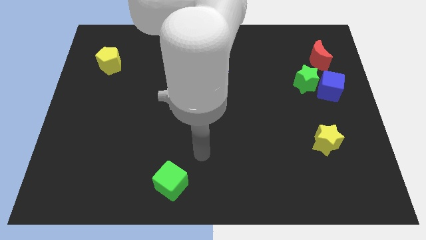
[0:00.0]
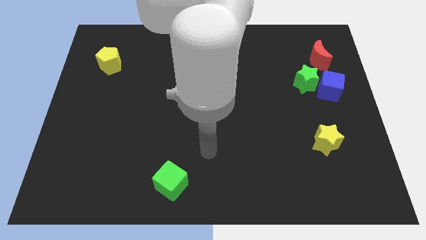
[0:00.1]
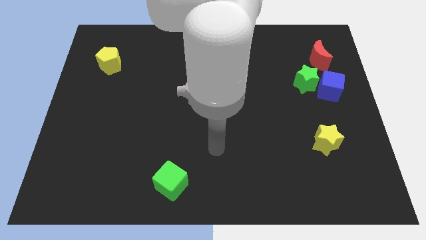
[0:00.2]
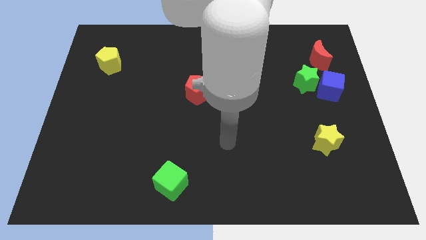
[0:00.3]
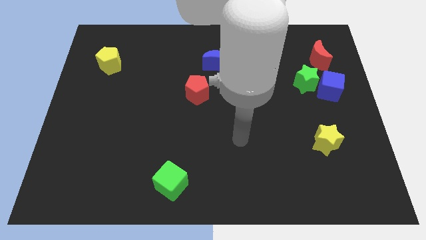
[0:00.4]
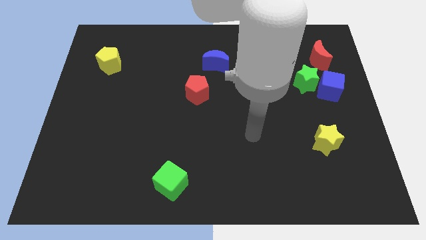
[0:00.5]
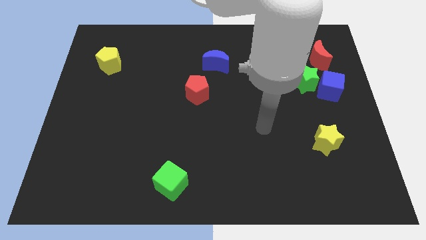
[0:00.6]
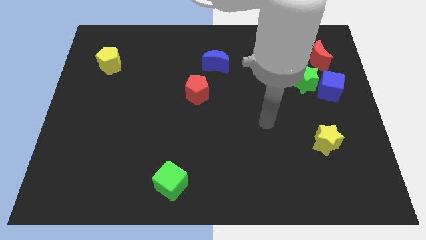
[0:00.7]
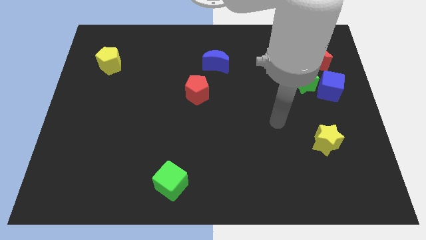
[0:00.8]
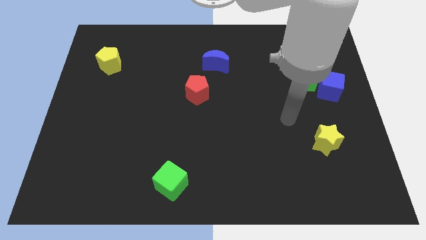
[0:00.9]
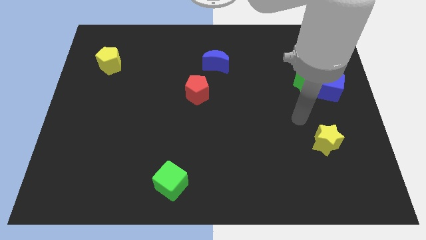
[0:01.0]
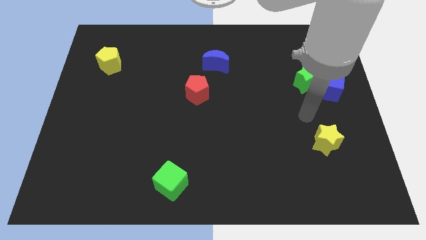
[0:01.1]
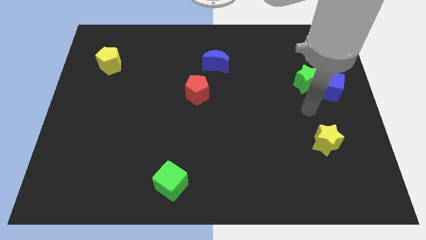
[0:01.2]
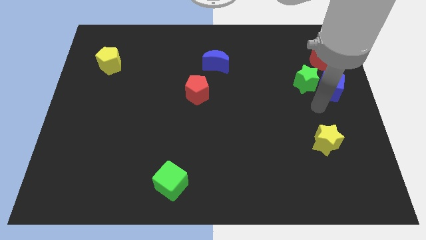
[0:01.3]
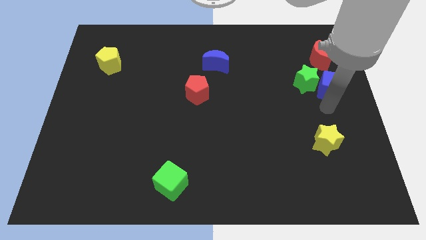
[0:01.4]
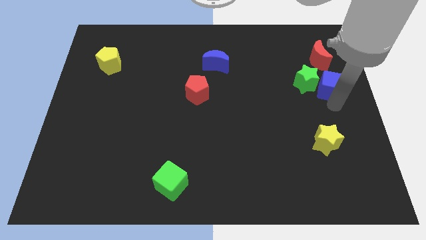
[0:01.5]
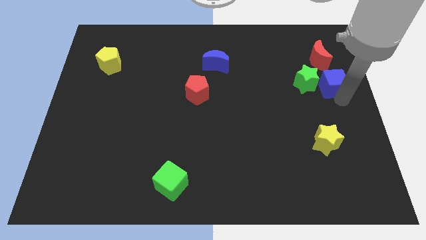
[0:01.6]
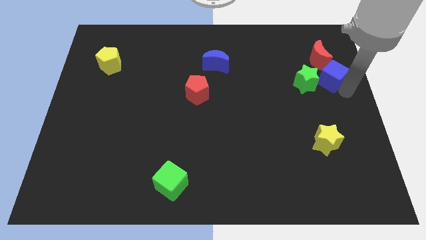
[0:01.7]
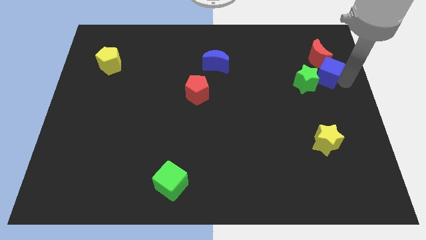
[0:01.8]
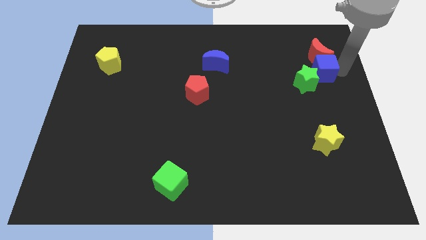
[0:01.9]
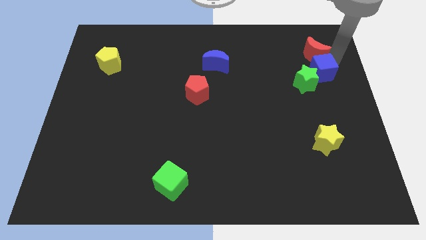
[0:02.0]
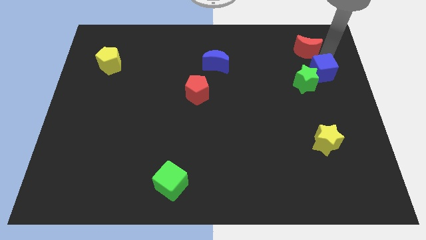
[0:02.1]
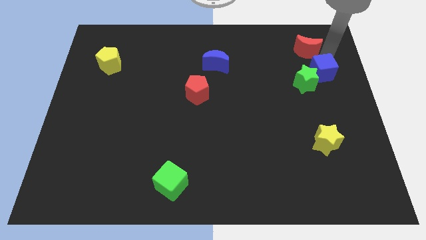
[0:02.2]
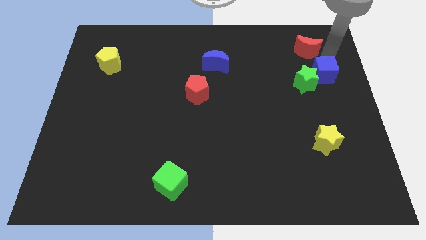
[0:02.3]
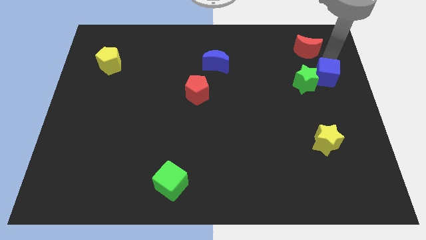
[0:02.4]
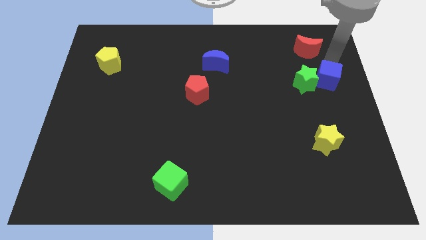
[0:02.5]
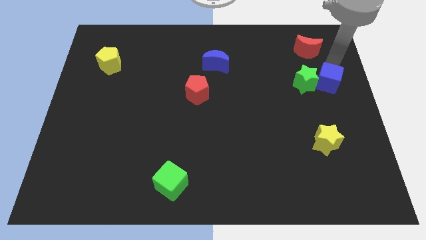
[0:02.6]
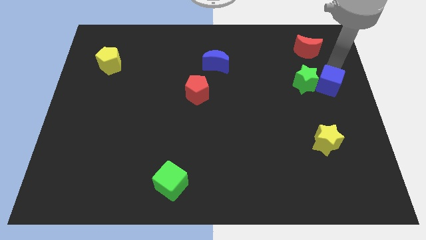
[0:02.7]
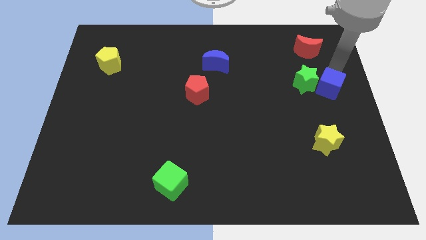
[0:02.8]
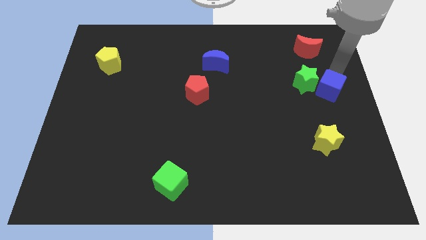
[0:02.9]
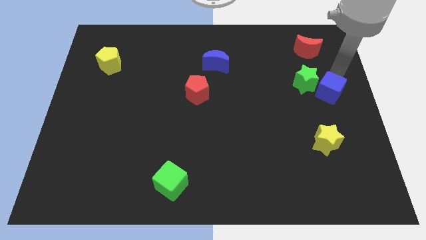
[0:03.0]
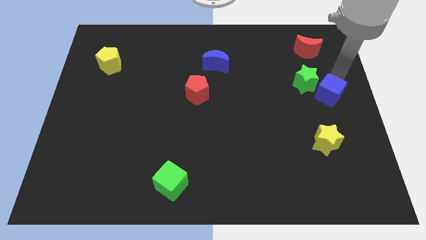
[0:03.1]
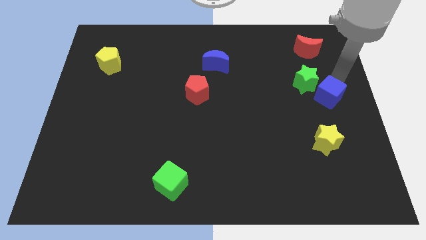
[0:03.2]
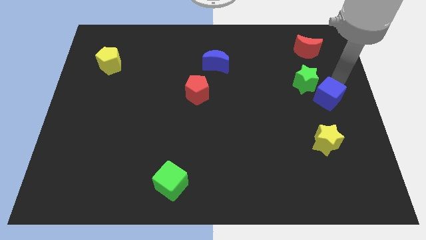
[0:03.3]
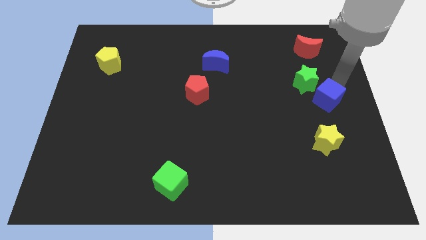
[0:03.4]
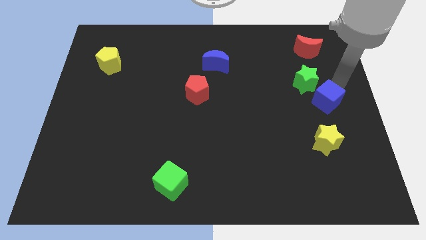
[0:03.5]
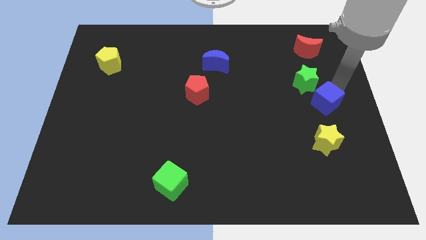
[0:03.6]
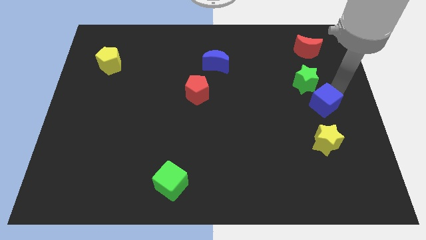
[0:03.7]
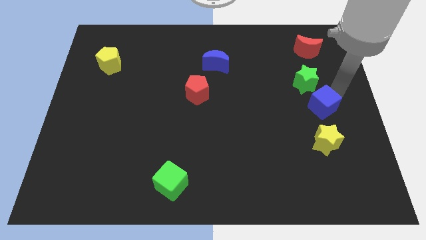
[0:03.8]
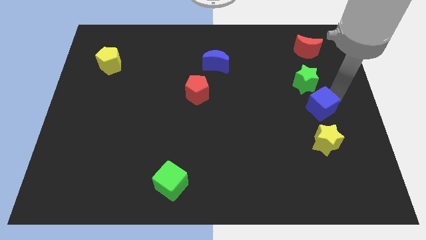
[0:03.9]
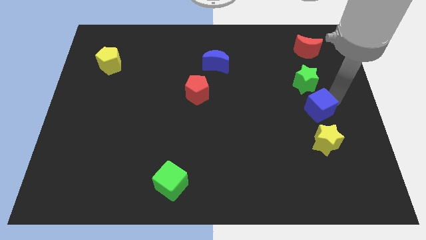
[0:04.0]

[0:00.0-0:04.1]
push the blue cube down and then to the left slightly

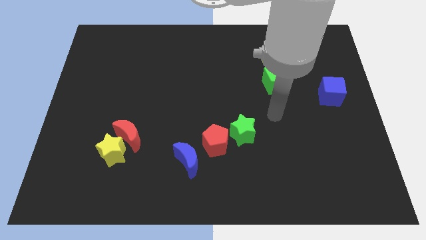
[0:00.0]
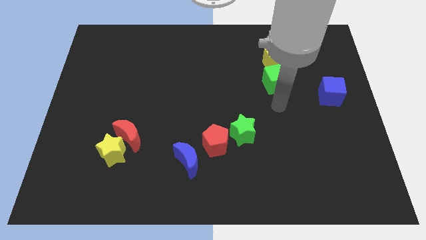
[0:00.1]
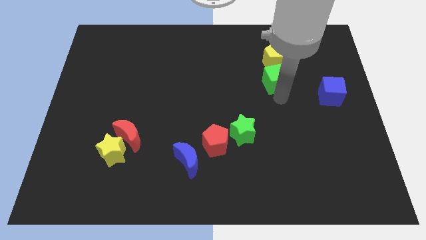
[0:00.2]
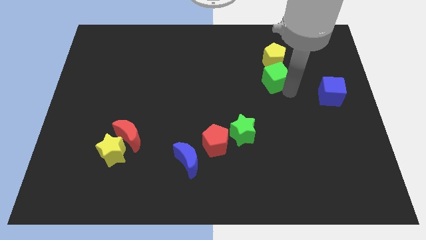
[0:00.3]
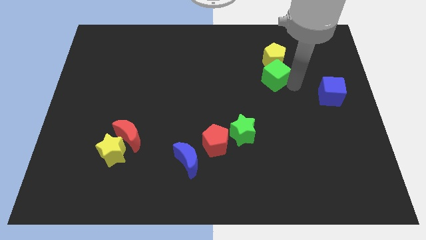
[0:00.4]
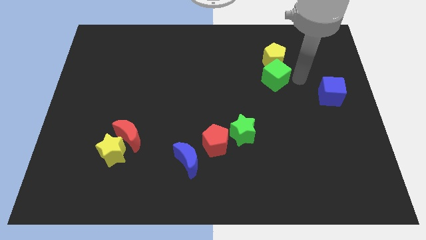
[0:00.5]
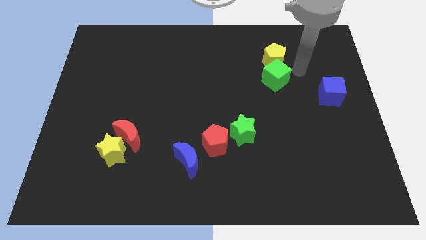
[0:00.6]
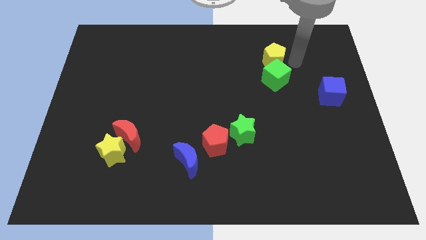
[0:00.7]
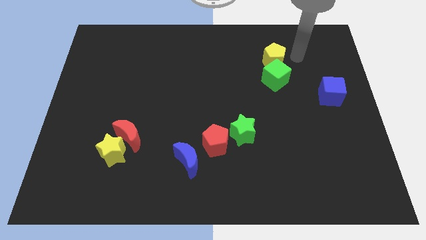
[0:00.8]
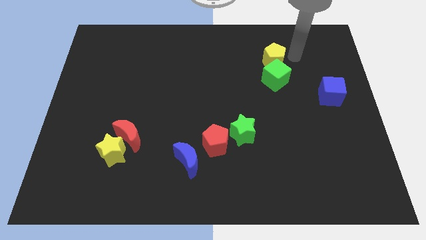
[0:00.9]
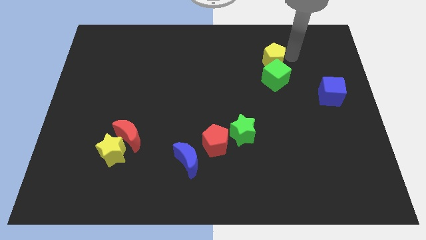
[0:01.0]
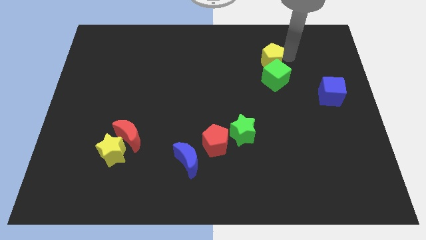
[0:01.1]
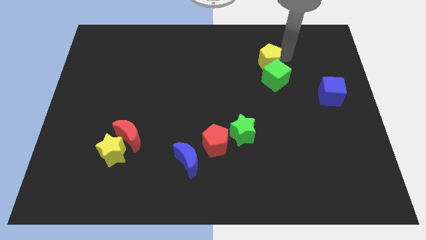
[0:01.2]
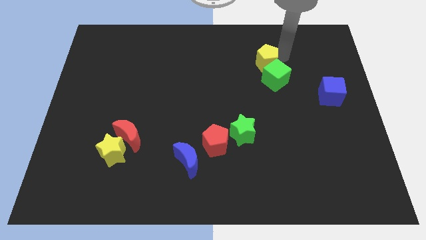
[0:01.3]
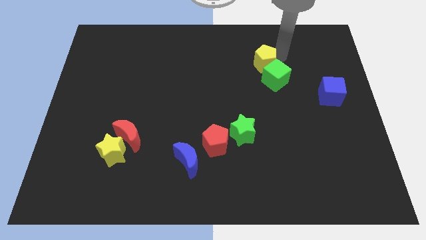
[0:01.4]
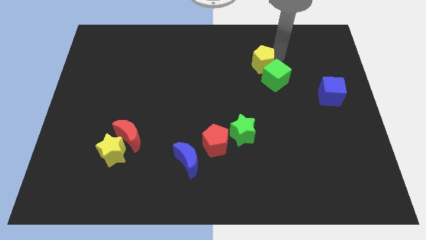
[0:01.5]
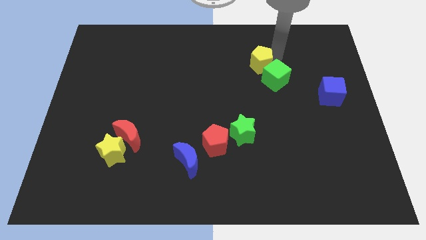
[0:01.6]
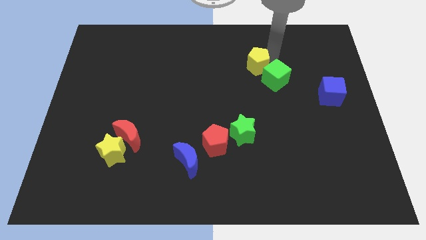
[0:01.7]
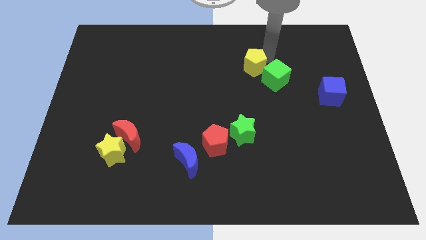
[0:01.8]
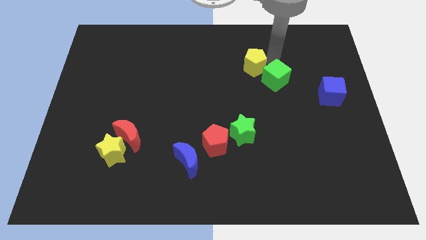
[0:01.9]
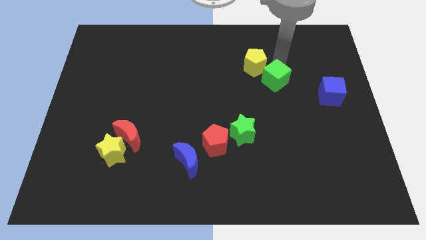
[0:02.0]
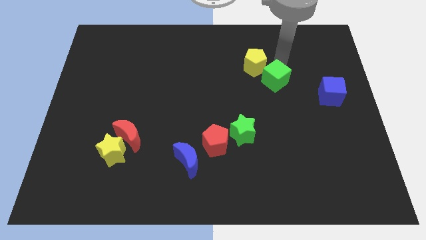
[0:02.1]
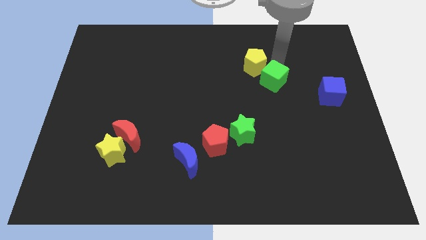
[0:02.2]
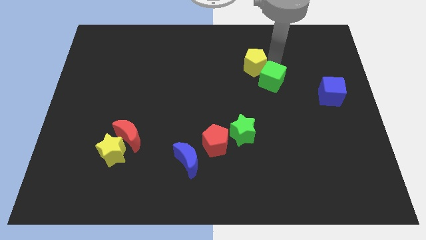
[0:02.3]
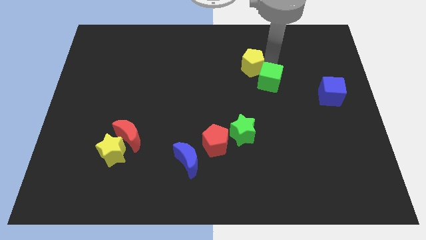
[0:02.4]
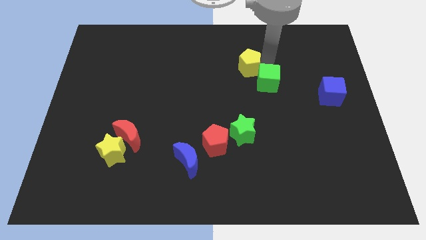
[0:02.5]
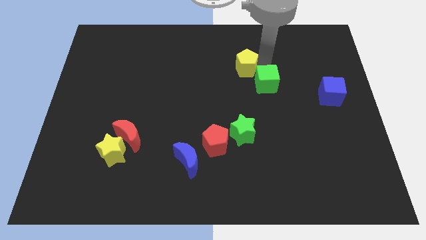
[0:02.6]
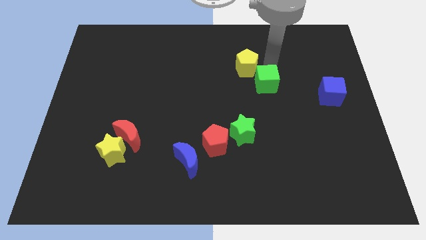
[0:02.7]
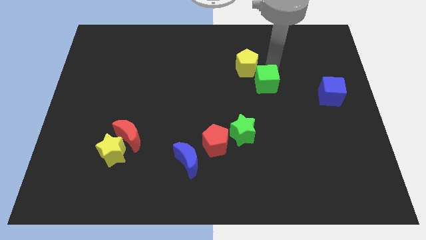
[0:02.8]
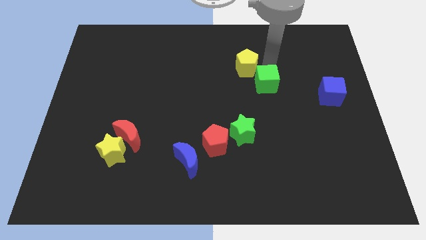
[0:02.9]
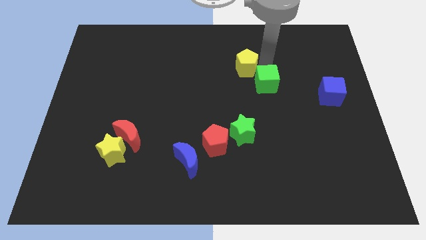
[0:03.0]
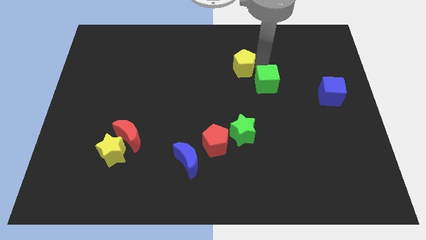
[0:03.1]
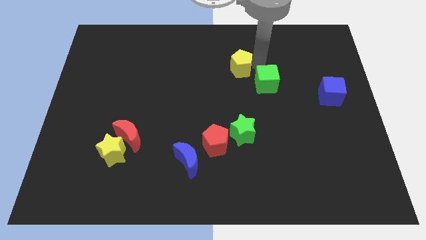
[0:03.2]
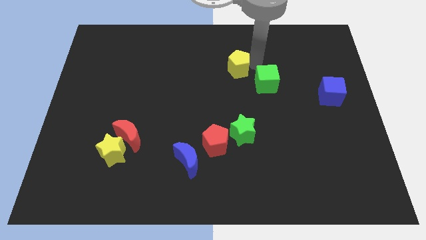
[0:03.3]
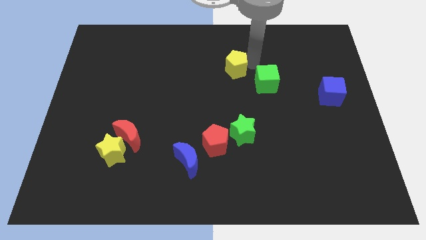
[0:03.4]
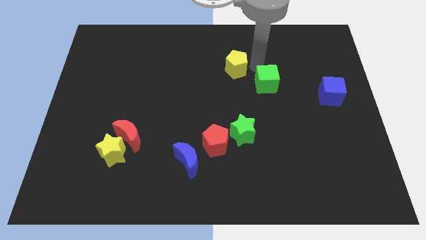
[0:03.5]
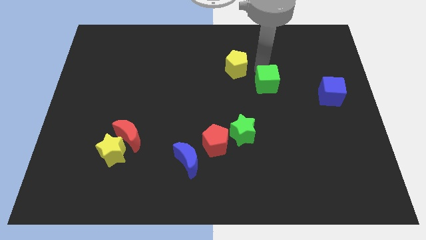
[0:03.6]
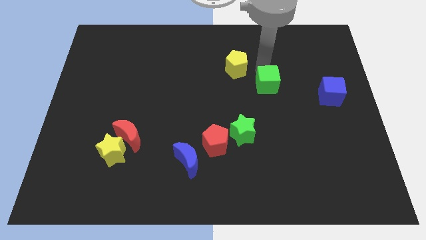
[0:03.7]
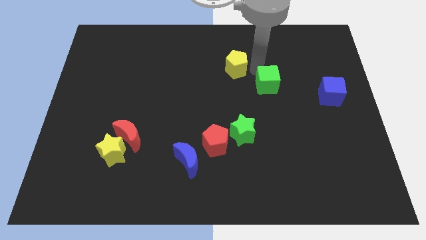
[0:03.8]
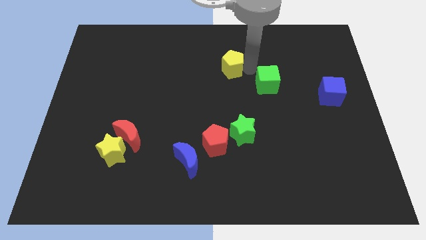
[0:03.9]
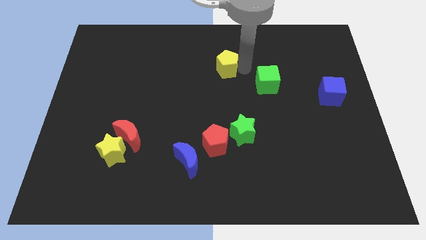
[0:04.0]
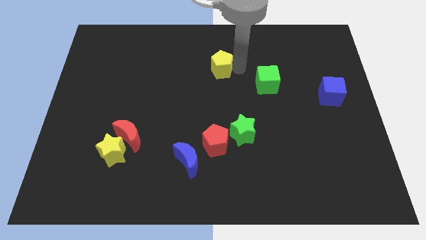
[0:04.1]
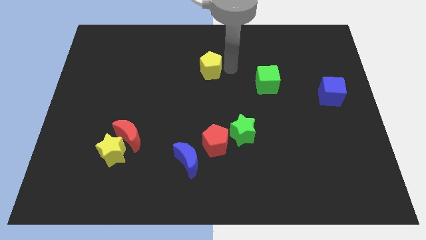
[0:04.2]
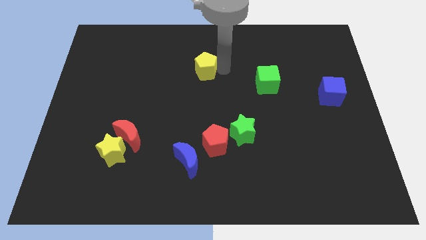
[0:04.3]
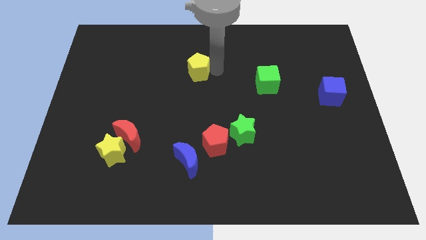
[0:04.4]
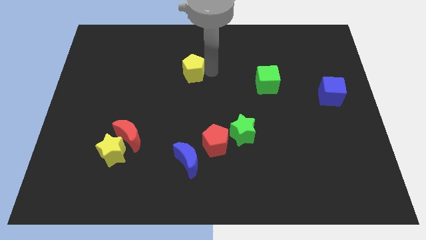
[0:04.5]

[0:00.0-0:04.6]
slide the yellow pentagon left
